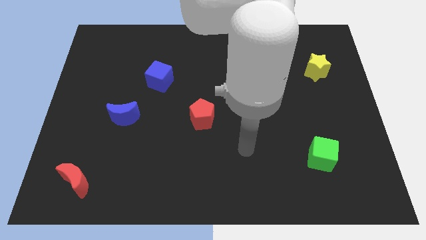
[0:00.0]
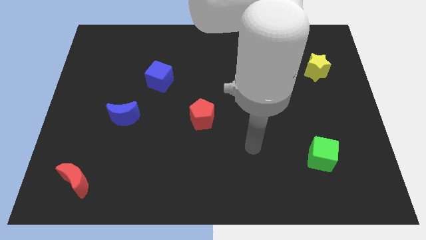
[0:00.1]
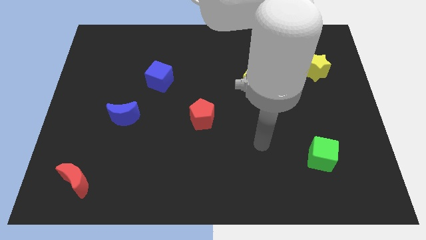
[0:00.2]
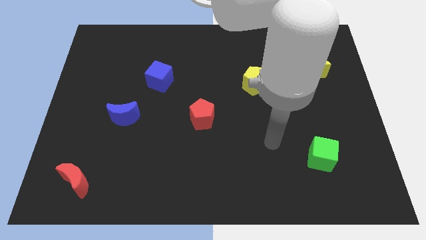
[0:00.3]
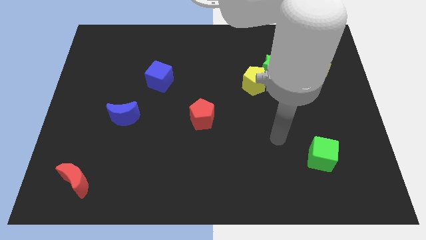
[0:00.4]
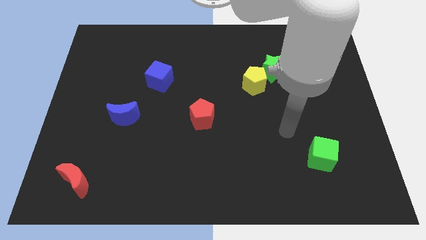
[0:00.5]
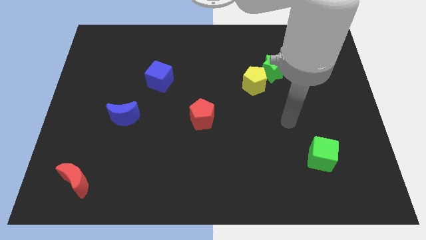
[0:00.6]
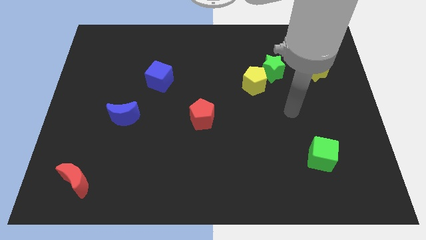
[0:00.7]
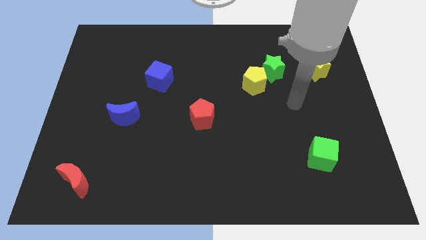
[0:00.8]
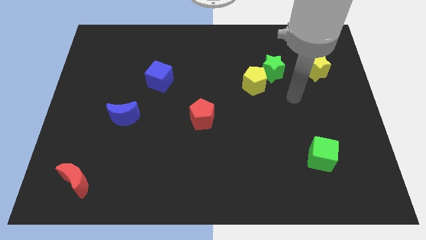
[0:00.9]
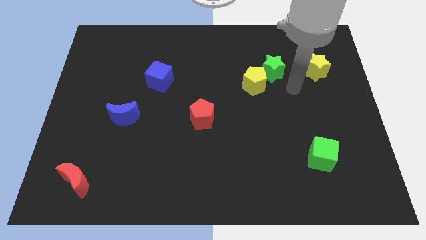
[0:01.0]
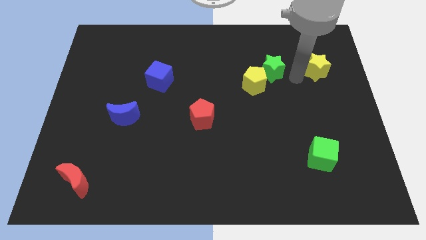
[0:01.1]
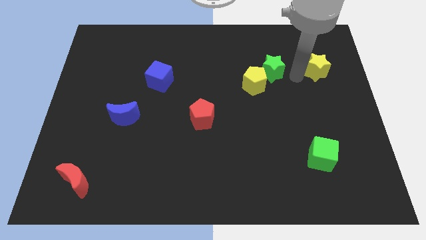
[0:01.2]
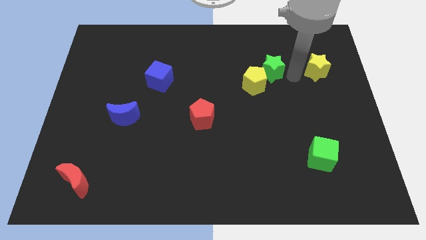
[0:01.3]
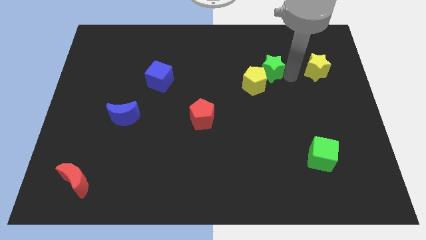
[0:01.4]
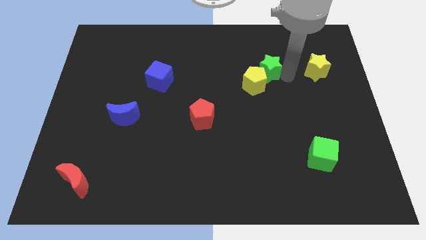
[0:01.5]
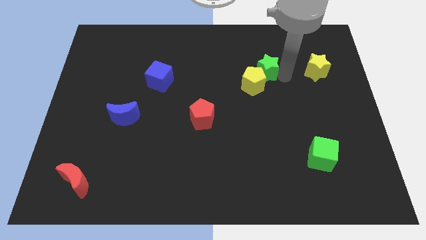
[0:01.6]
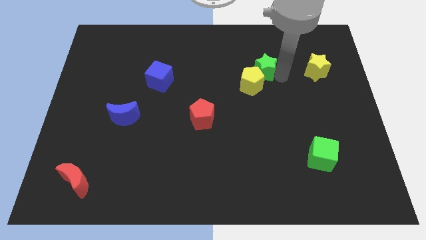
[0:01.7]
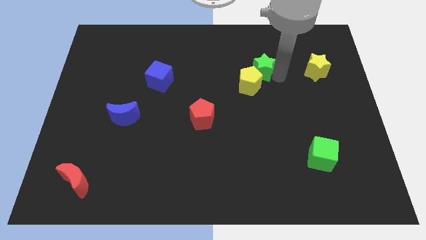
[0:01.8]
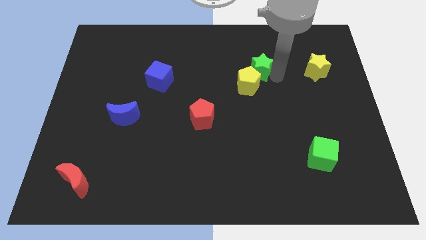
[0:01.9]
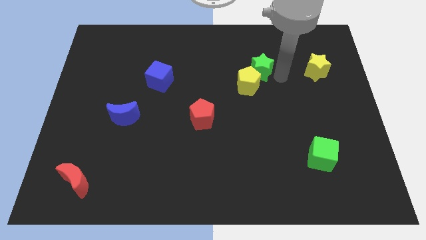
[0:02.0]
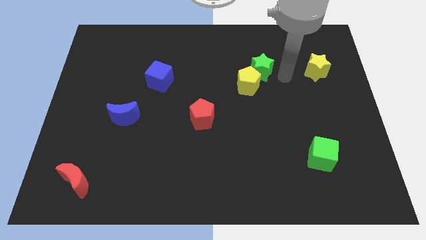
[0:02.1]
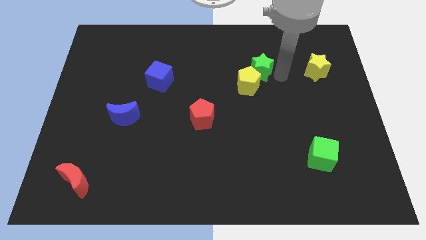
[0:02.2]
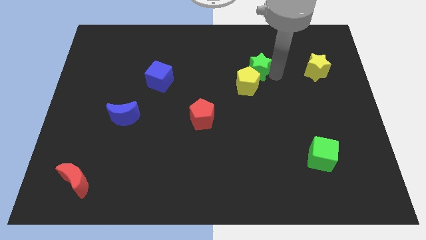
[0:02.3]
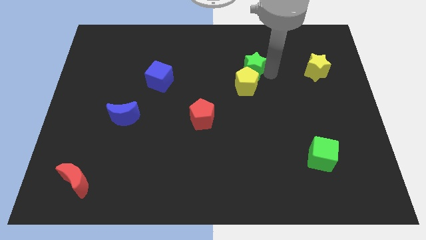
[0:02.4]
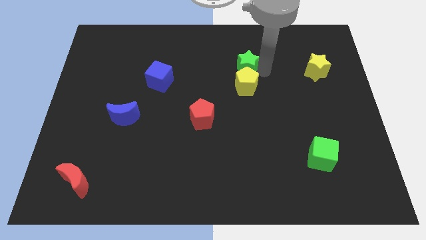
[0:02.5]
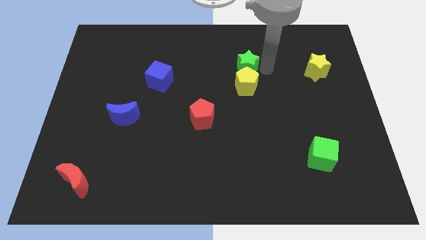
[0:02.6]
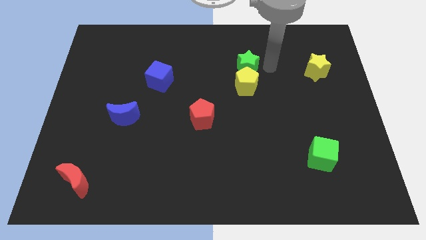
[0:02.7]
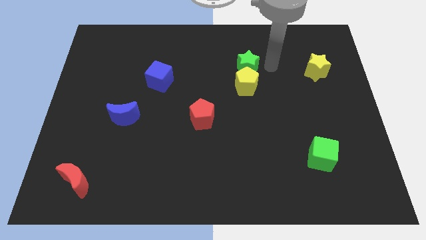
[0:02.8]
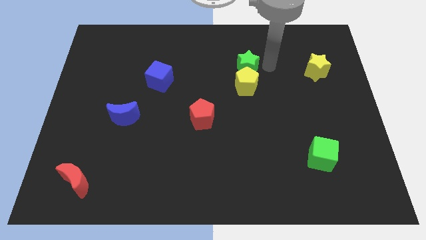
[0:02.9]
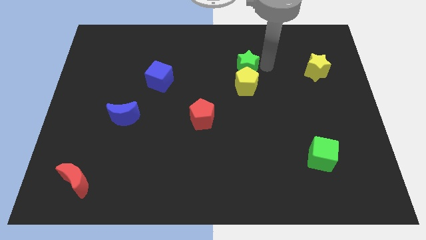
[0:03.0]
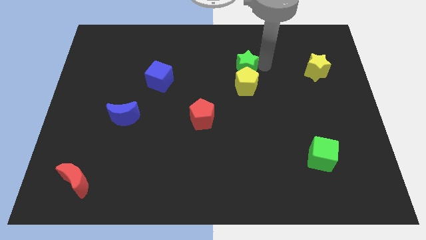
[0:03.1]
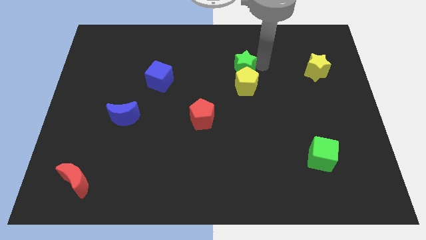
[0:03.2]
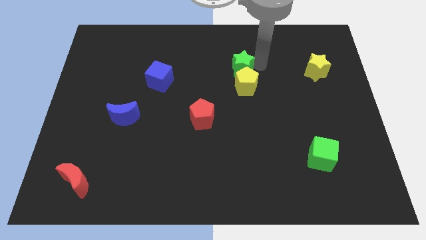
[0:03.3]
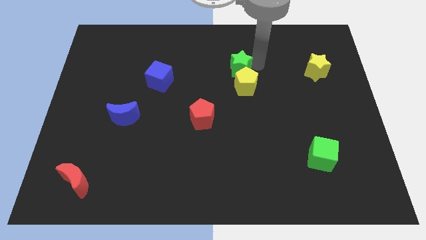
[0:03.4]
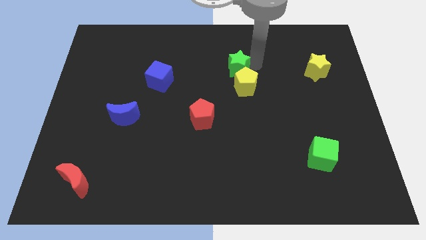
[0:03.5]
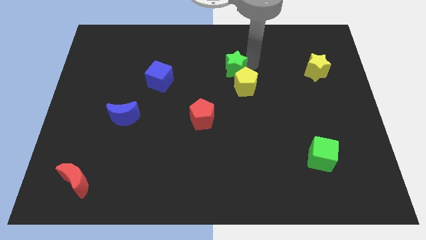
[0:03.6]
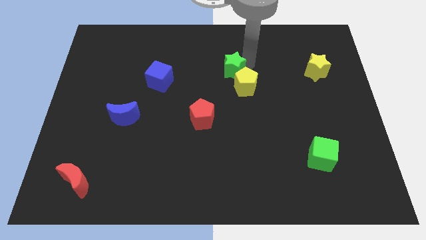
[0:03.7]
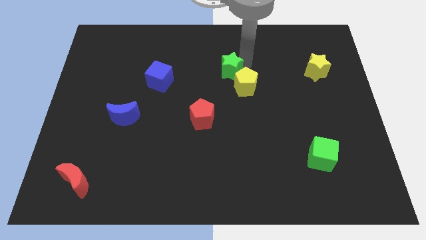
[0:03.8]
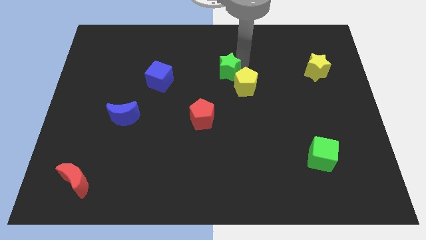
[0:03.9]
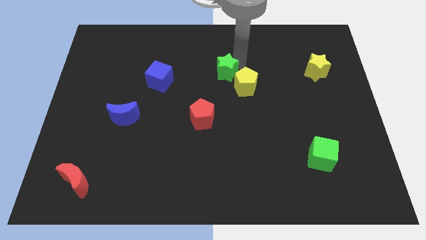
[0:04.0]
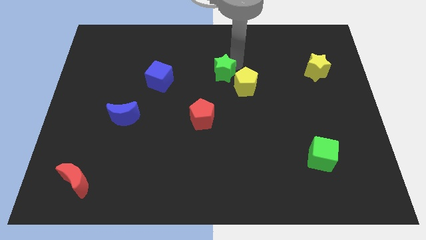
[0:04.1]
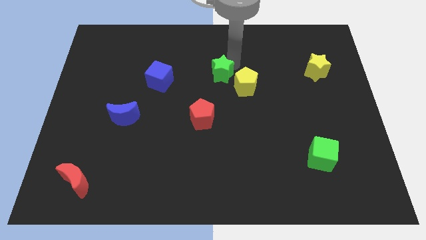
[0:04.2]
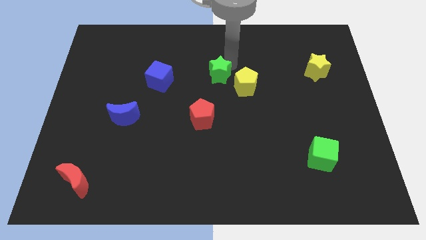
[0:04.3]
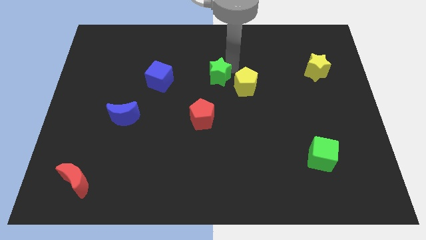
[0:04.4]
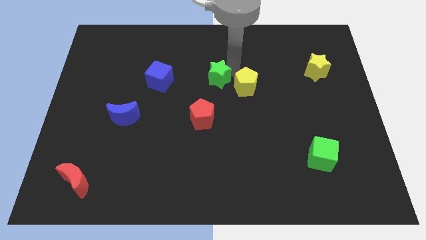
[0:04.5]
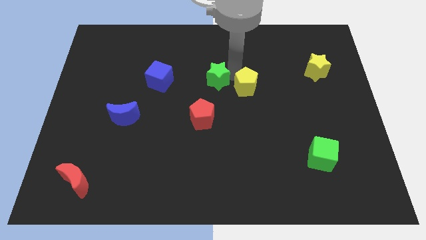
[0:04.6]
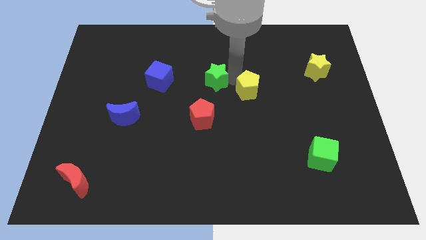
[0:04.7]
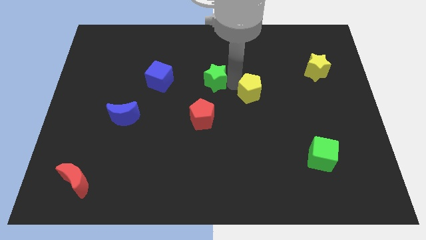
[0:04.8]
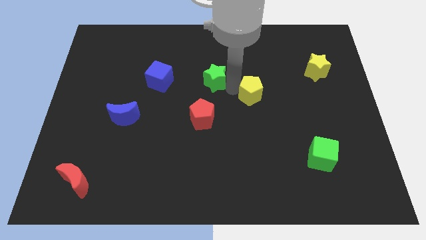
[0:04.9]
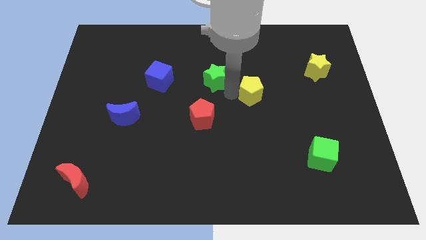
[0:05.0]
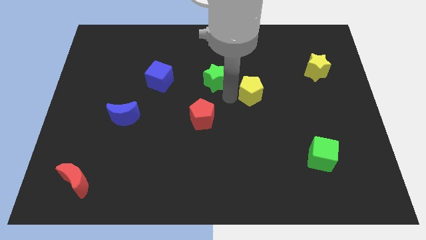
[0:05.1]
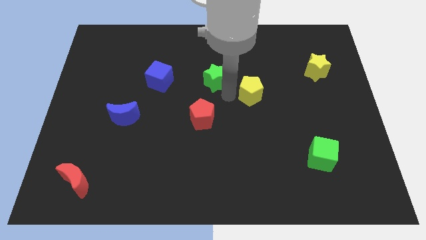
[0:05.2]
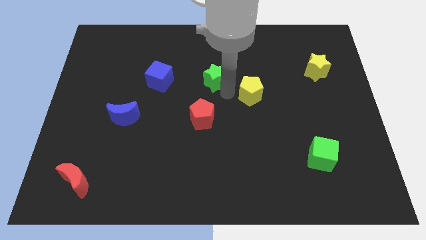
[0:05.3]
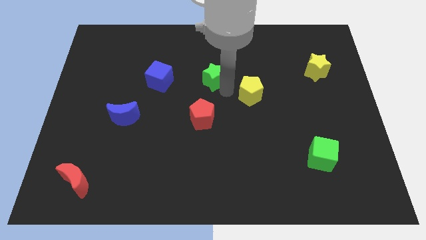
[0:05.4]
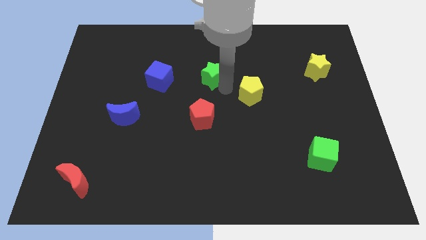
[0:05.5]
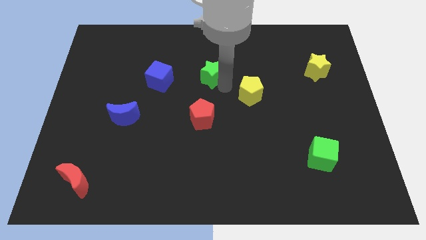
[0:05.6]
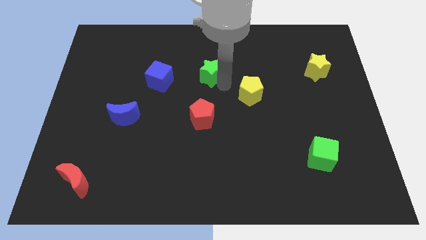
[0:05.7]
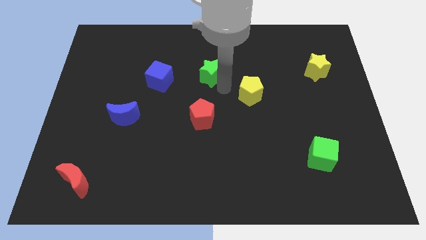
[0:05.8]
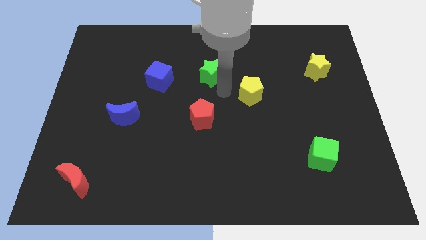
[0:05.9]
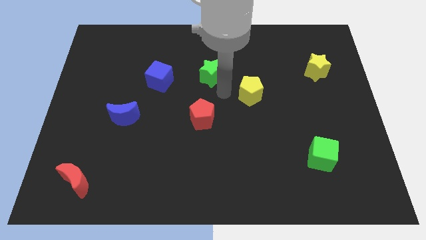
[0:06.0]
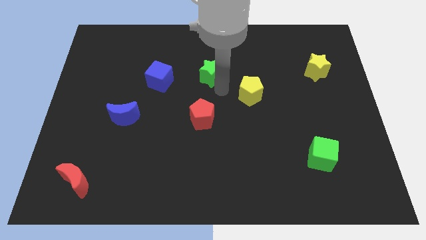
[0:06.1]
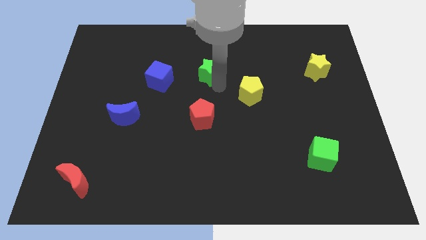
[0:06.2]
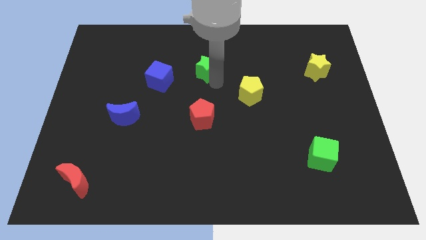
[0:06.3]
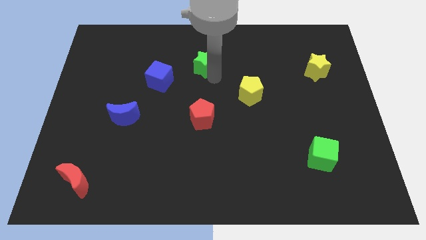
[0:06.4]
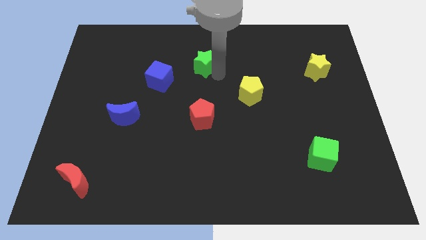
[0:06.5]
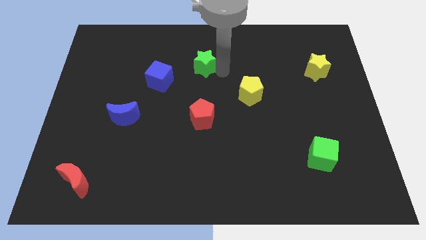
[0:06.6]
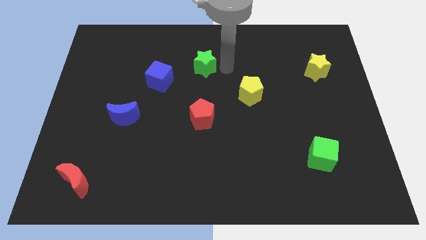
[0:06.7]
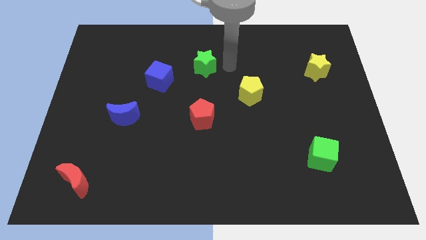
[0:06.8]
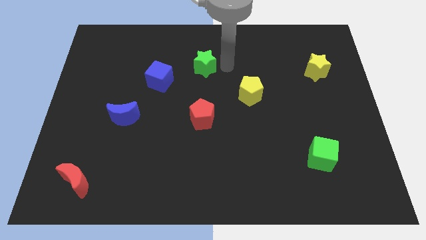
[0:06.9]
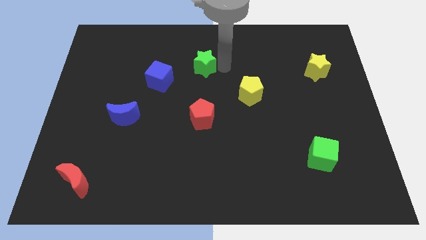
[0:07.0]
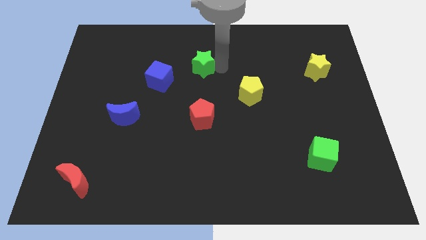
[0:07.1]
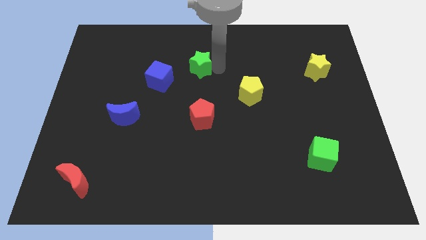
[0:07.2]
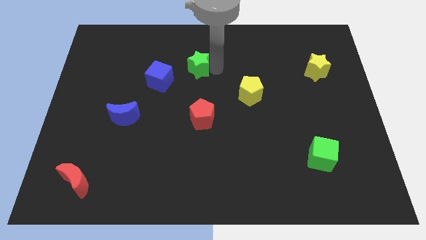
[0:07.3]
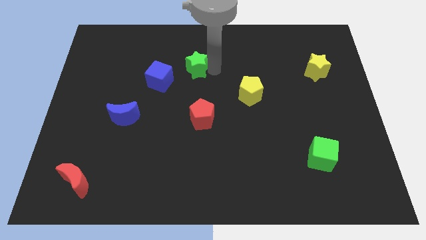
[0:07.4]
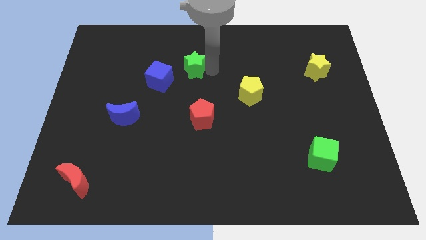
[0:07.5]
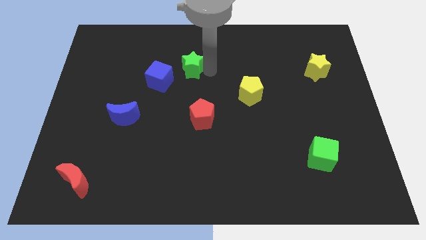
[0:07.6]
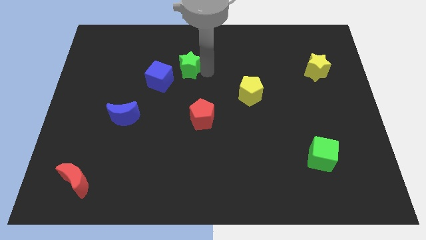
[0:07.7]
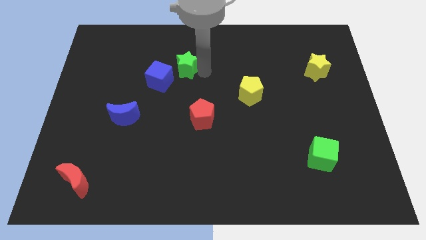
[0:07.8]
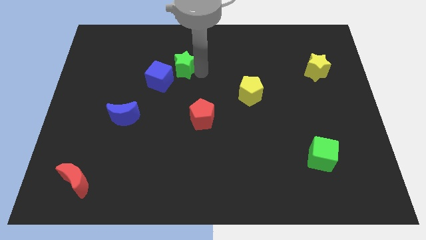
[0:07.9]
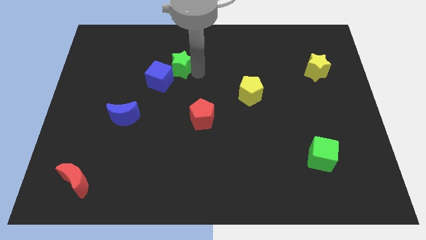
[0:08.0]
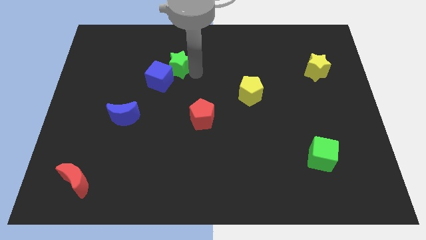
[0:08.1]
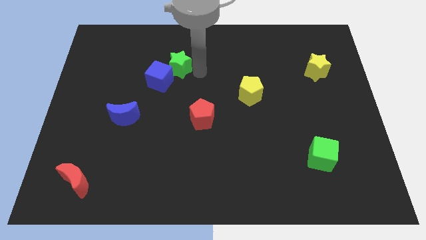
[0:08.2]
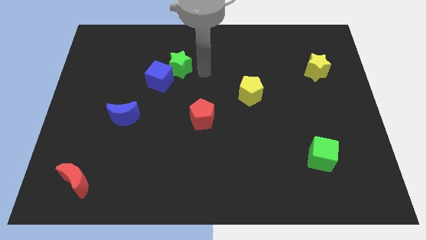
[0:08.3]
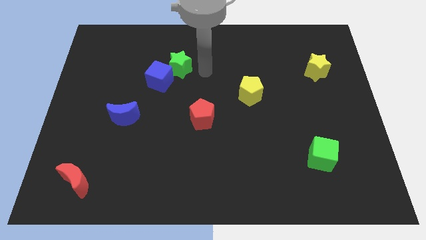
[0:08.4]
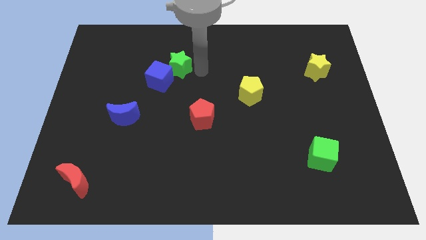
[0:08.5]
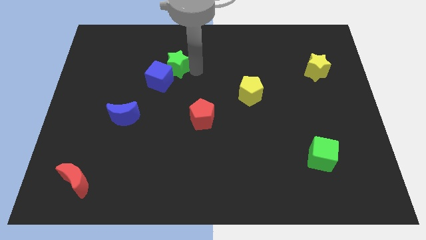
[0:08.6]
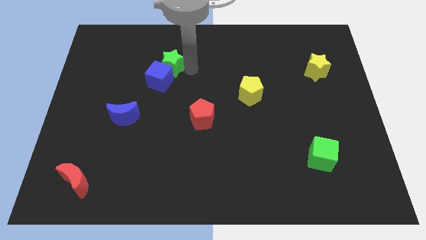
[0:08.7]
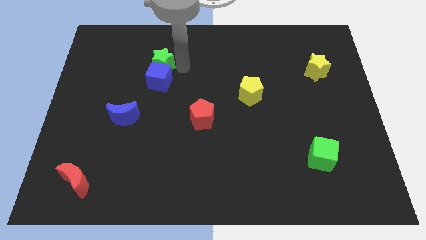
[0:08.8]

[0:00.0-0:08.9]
move the green star diagonally up and to the left of the blue cube
